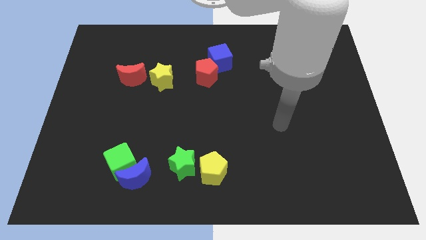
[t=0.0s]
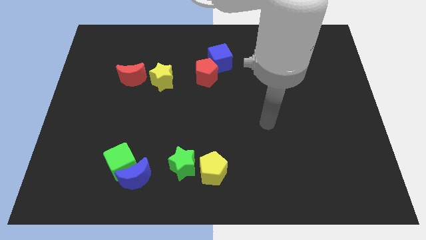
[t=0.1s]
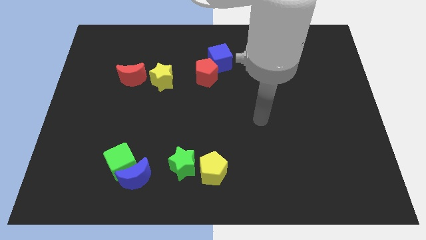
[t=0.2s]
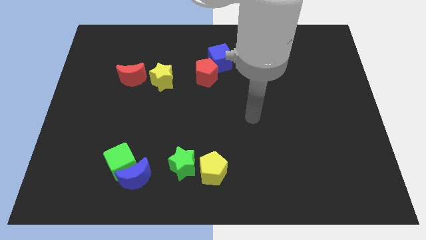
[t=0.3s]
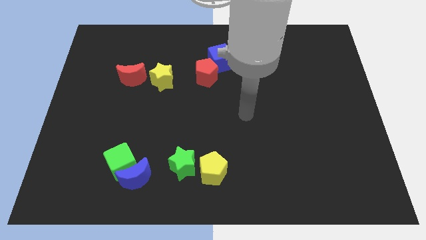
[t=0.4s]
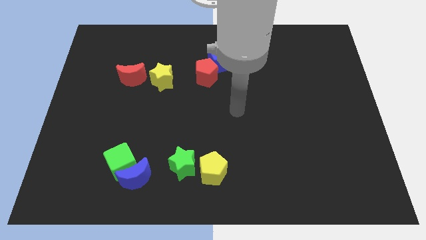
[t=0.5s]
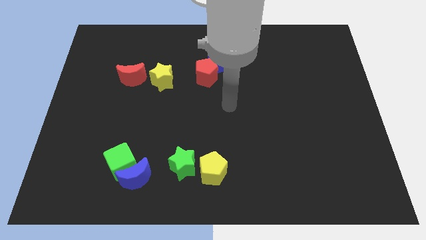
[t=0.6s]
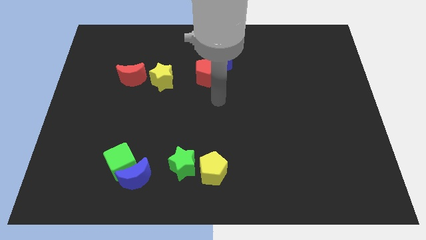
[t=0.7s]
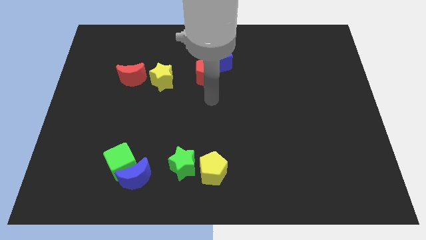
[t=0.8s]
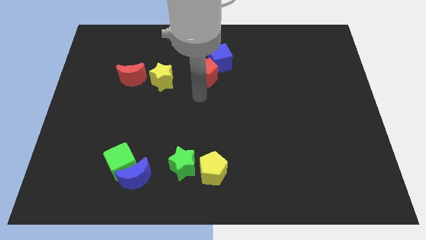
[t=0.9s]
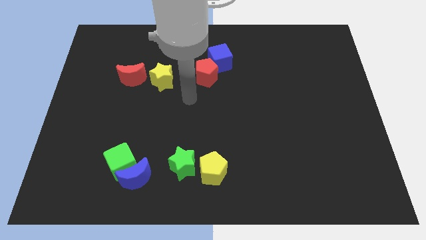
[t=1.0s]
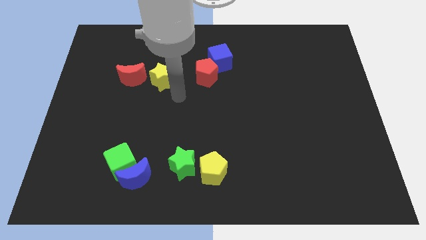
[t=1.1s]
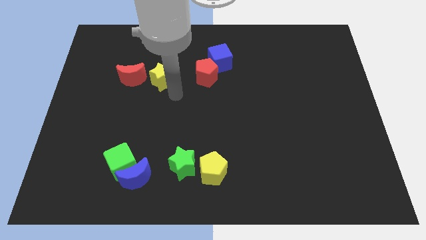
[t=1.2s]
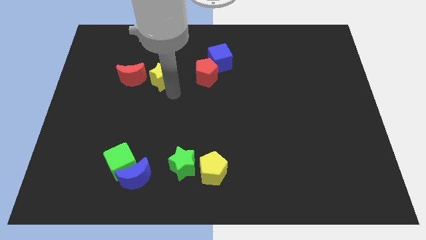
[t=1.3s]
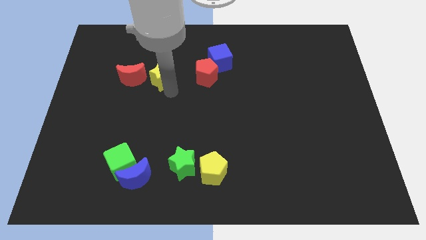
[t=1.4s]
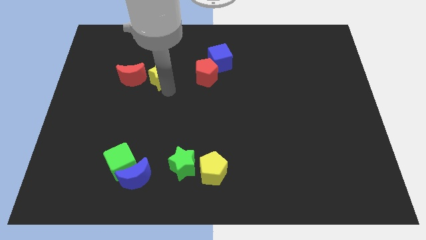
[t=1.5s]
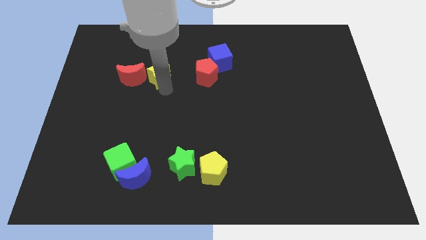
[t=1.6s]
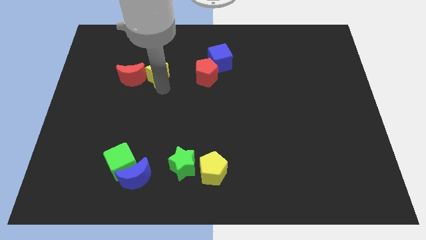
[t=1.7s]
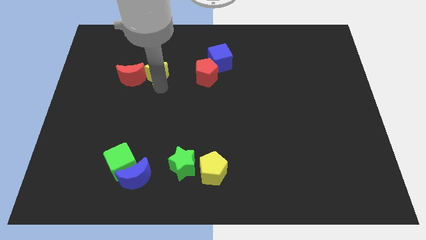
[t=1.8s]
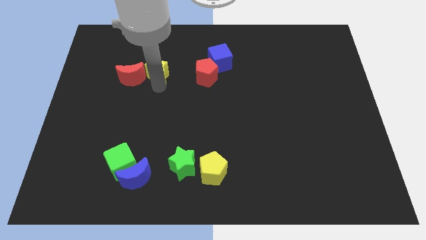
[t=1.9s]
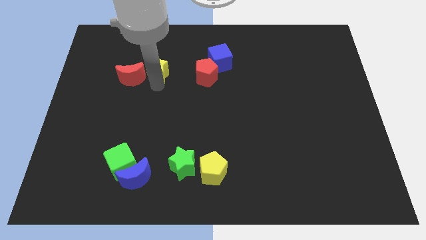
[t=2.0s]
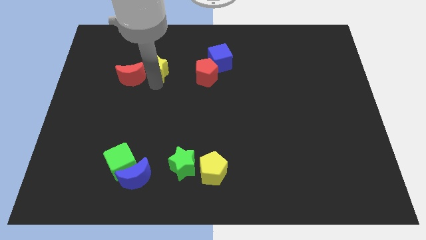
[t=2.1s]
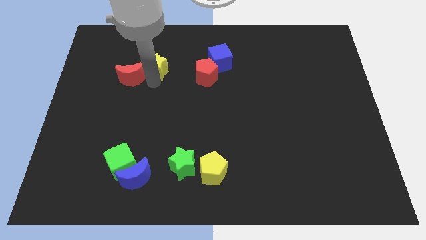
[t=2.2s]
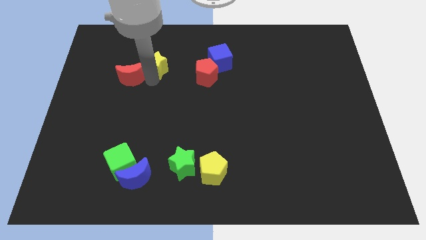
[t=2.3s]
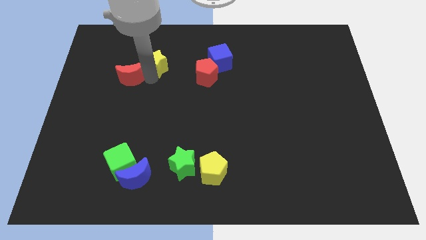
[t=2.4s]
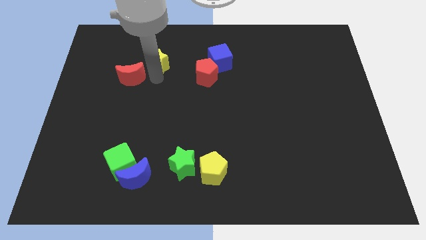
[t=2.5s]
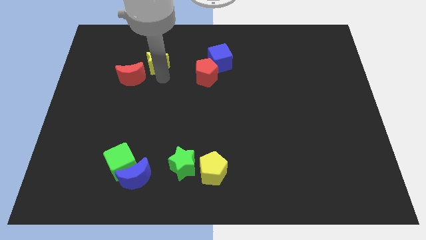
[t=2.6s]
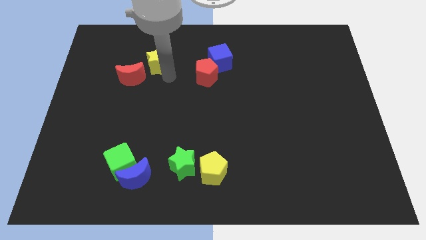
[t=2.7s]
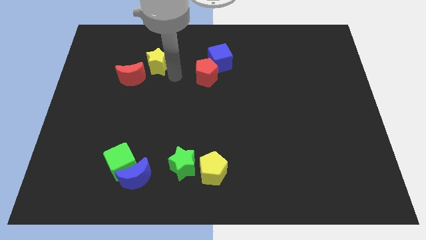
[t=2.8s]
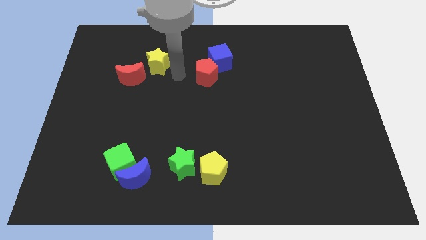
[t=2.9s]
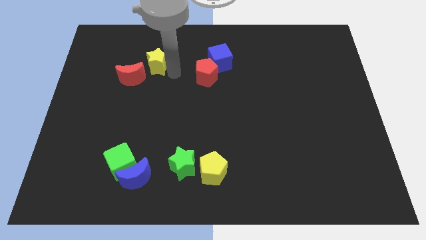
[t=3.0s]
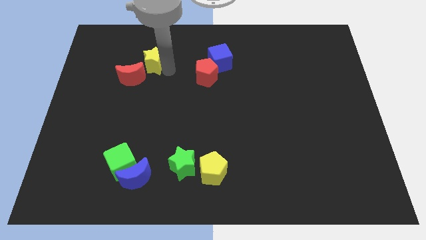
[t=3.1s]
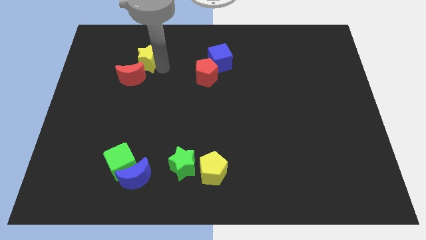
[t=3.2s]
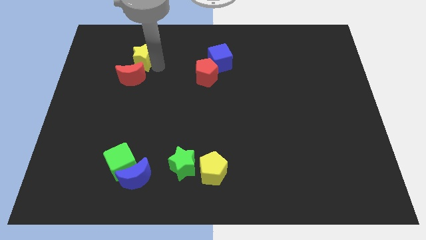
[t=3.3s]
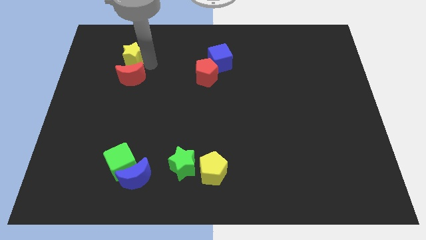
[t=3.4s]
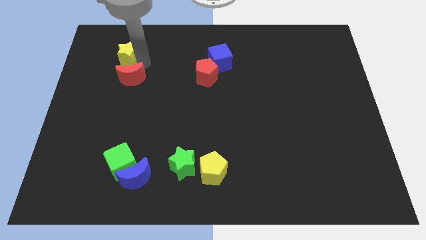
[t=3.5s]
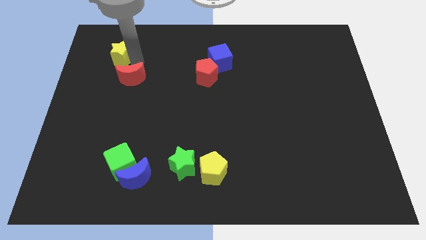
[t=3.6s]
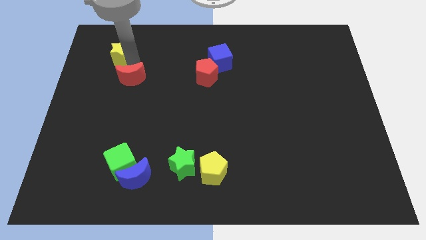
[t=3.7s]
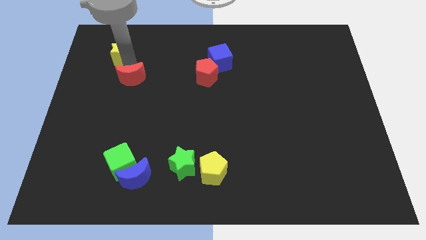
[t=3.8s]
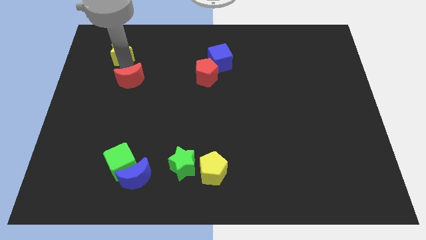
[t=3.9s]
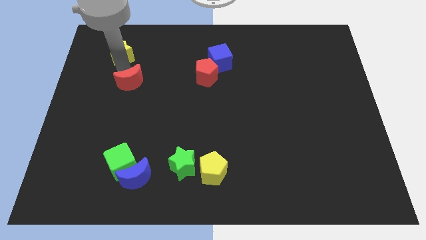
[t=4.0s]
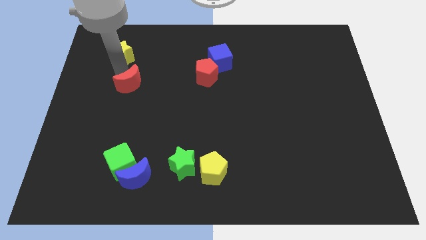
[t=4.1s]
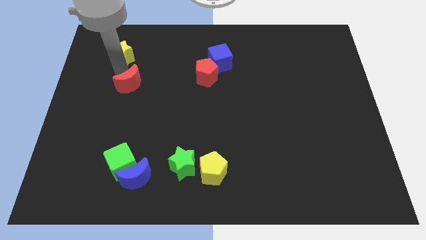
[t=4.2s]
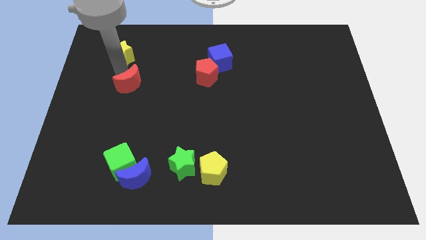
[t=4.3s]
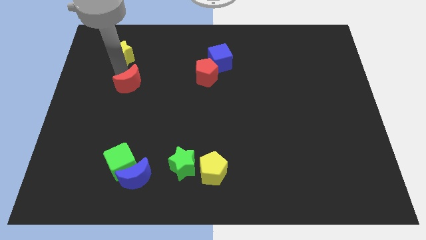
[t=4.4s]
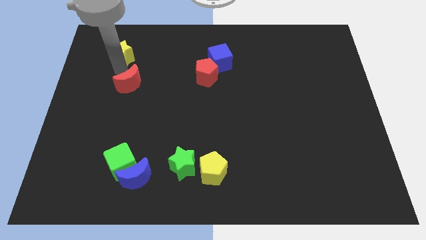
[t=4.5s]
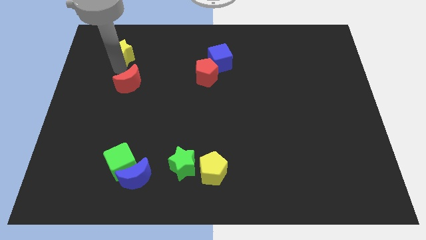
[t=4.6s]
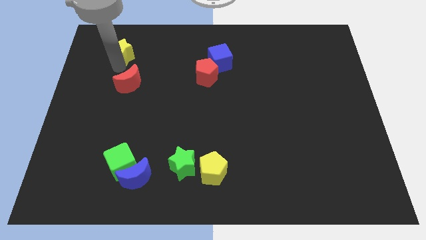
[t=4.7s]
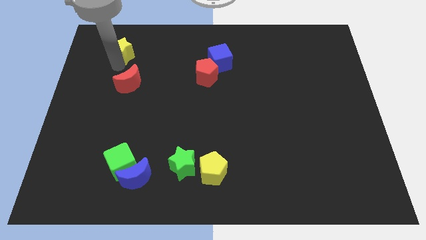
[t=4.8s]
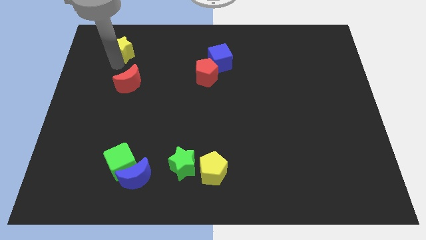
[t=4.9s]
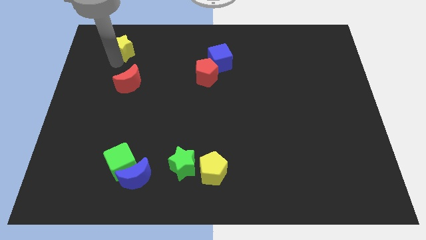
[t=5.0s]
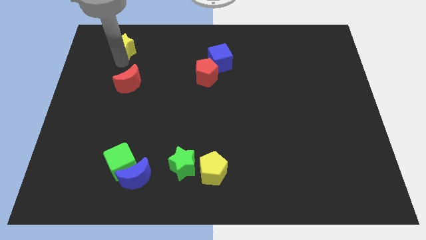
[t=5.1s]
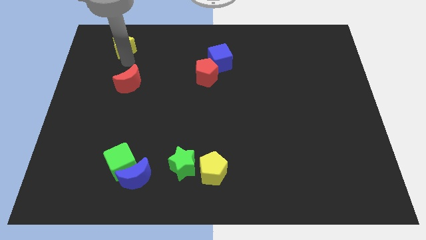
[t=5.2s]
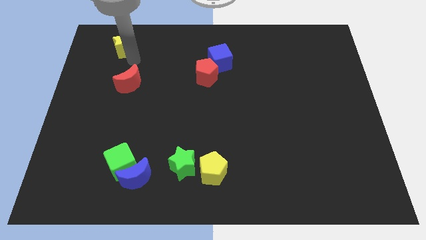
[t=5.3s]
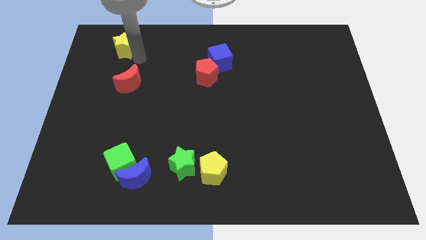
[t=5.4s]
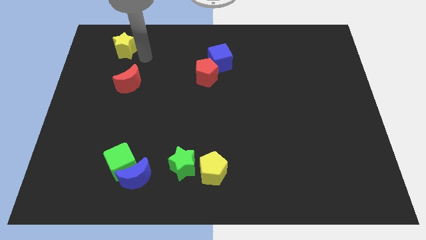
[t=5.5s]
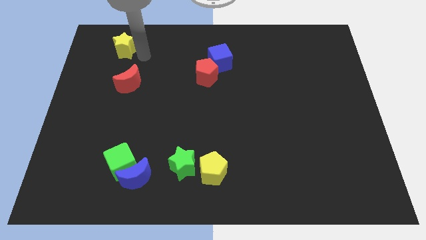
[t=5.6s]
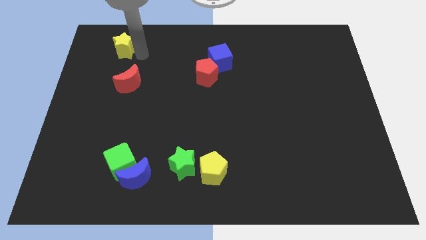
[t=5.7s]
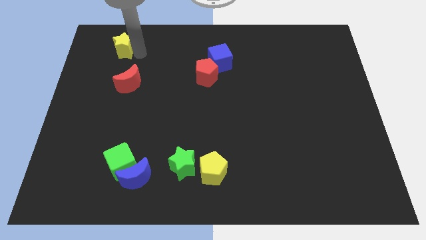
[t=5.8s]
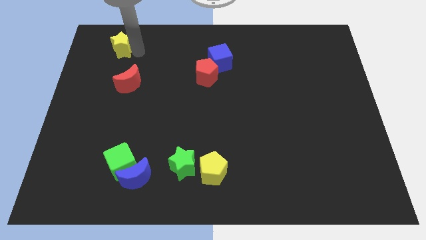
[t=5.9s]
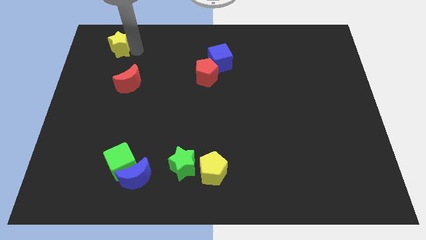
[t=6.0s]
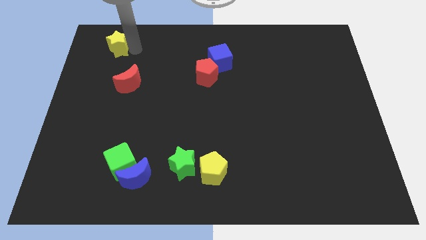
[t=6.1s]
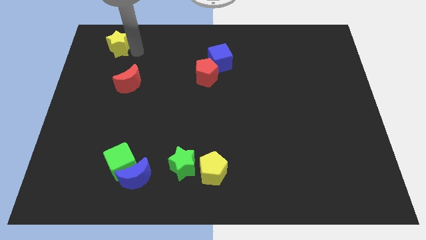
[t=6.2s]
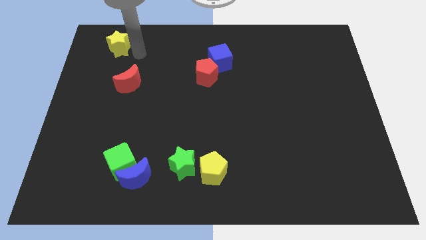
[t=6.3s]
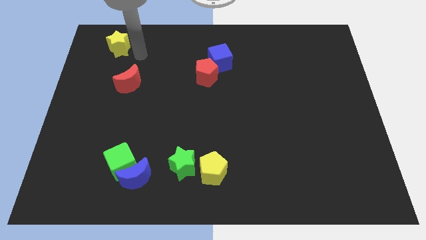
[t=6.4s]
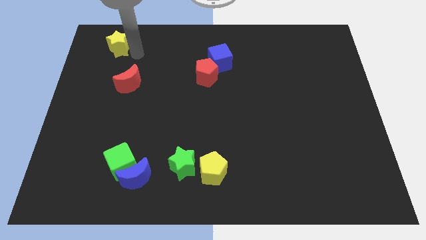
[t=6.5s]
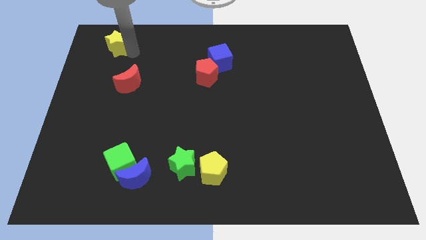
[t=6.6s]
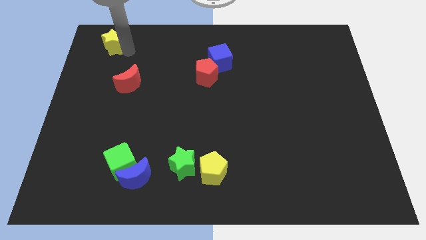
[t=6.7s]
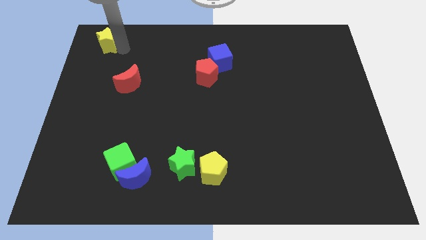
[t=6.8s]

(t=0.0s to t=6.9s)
push the yellow star to the top left corner
